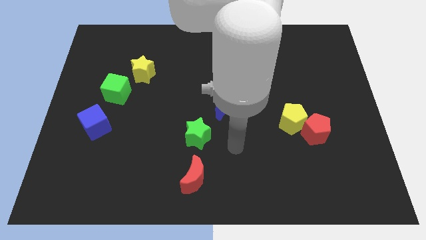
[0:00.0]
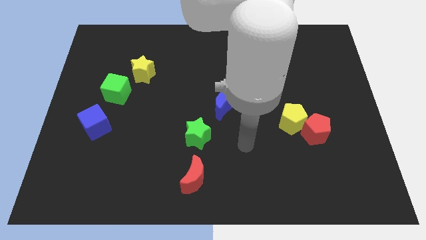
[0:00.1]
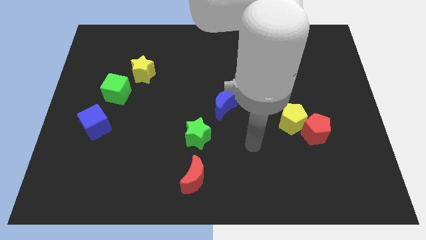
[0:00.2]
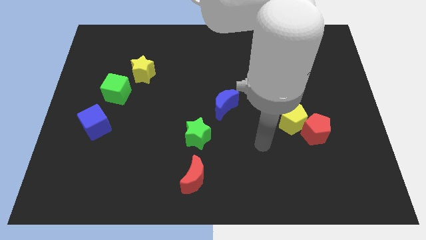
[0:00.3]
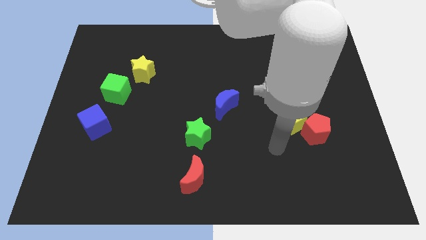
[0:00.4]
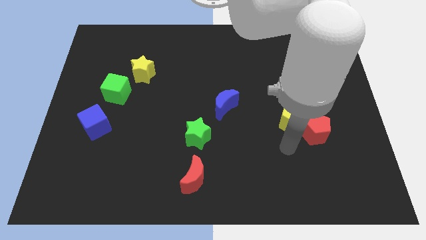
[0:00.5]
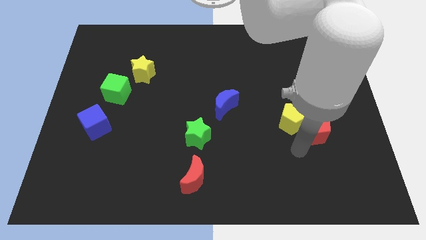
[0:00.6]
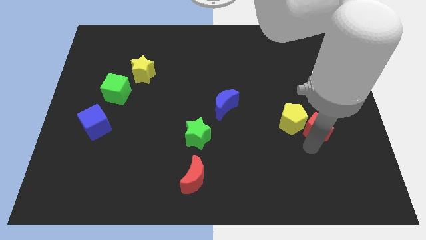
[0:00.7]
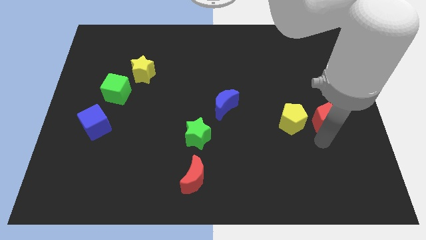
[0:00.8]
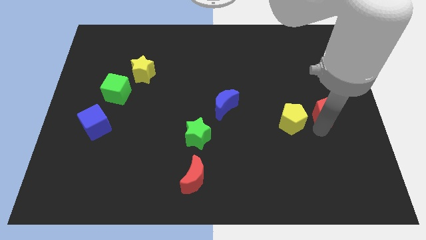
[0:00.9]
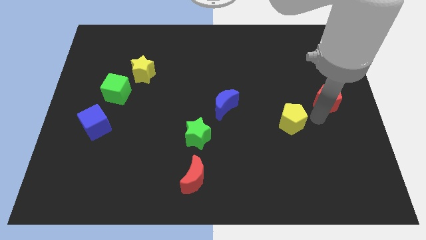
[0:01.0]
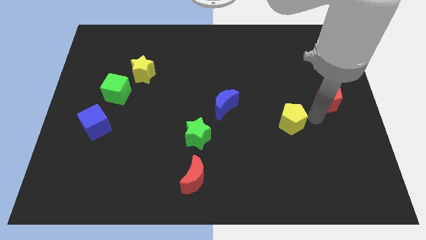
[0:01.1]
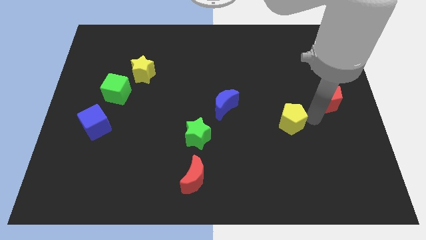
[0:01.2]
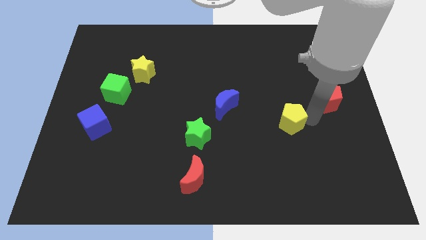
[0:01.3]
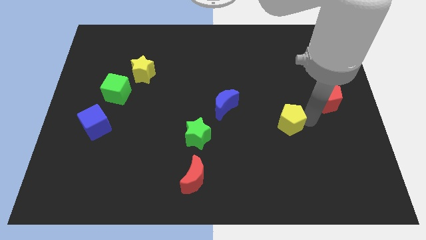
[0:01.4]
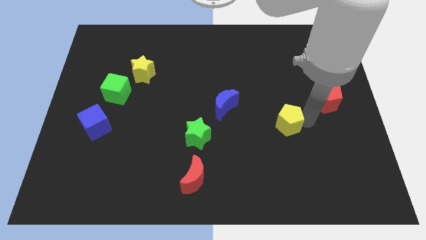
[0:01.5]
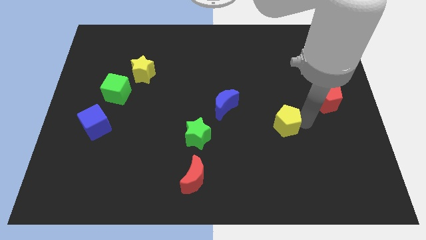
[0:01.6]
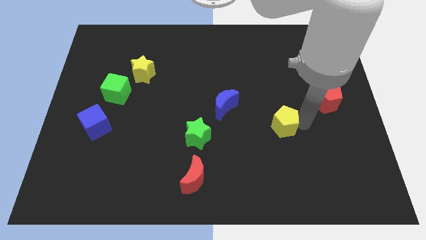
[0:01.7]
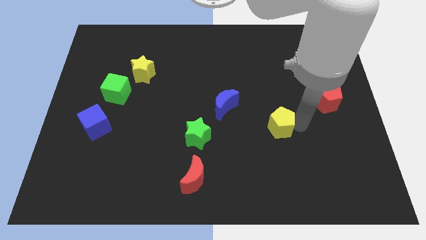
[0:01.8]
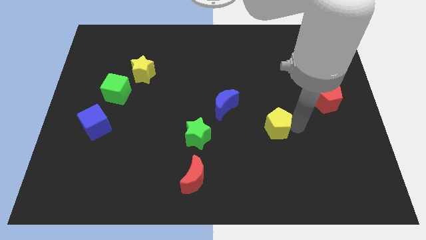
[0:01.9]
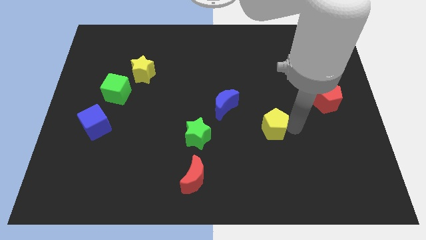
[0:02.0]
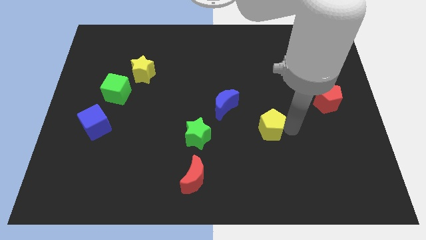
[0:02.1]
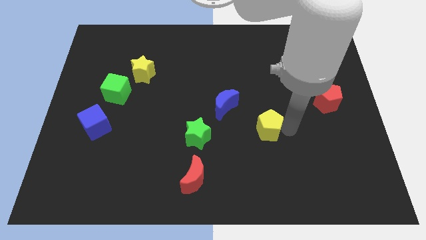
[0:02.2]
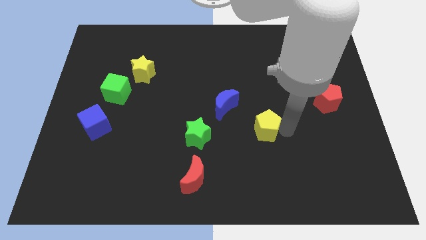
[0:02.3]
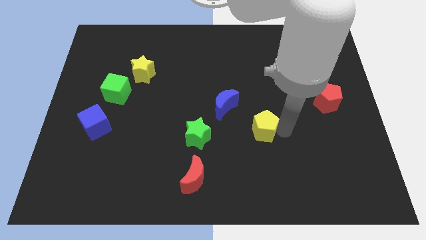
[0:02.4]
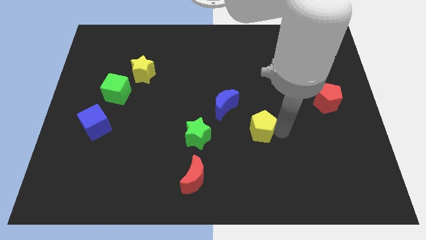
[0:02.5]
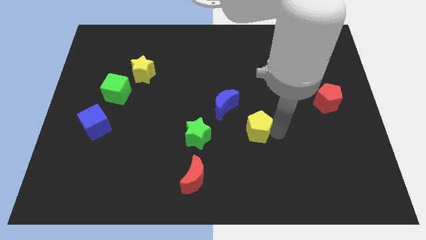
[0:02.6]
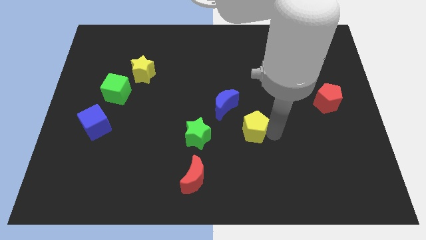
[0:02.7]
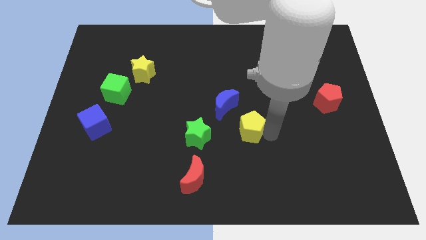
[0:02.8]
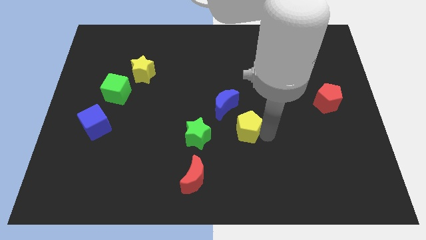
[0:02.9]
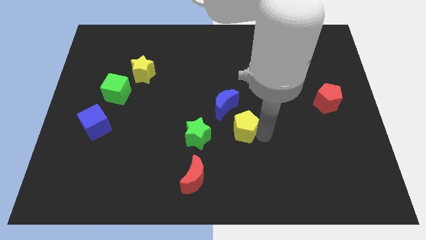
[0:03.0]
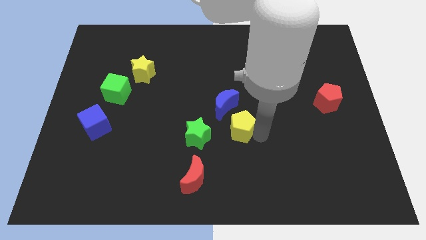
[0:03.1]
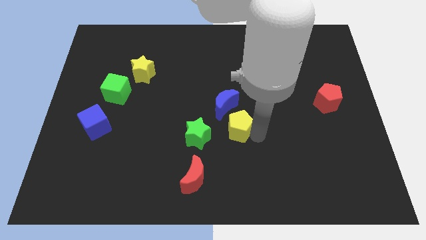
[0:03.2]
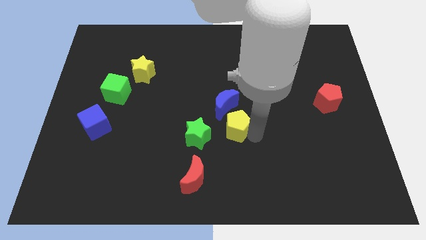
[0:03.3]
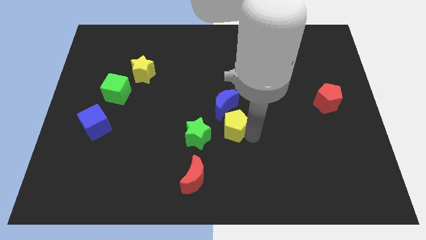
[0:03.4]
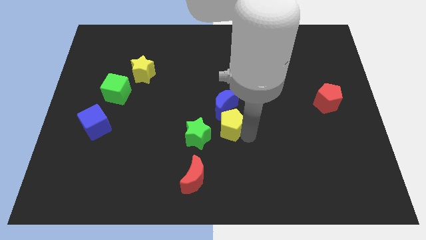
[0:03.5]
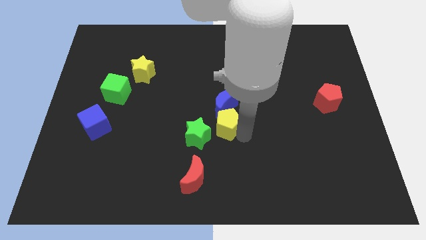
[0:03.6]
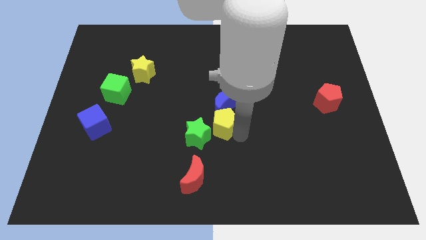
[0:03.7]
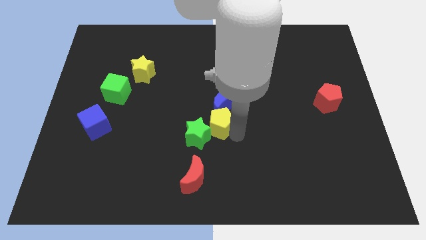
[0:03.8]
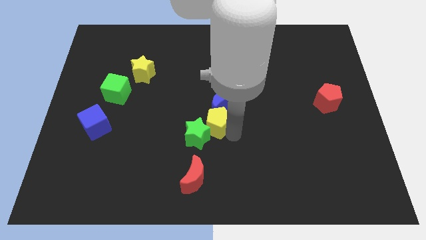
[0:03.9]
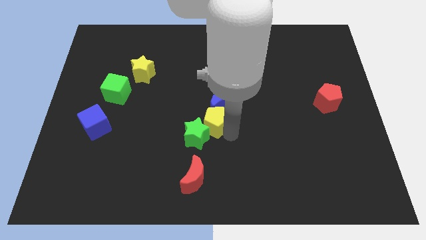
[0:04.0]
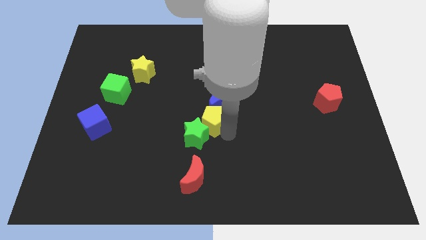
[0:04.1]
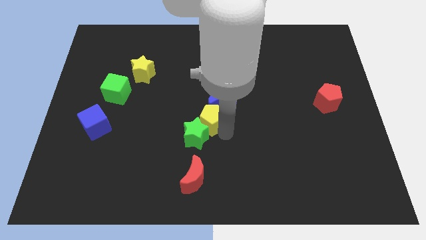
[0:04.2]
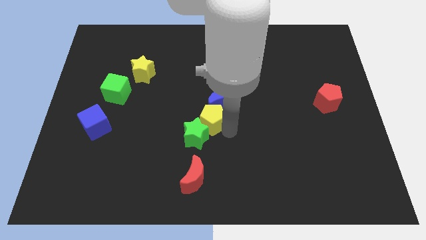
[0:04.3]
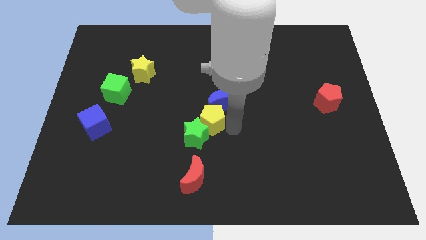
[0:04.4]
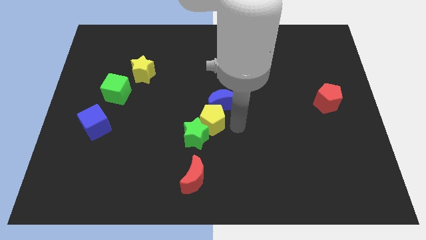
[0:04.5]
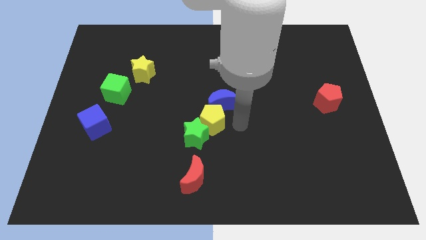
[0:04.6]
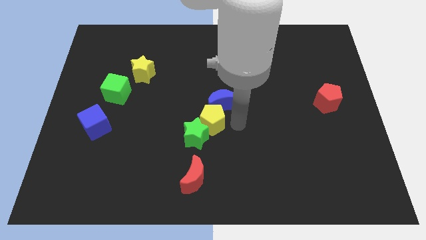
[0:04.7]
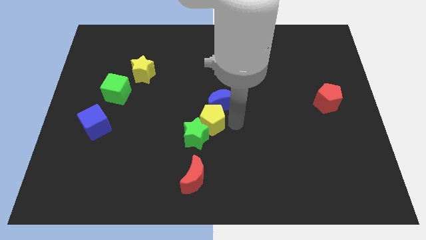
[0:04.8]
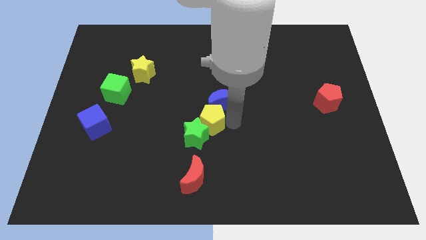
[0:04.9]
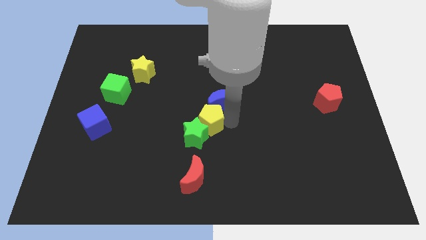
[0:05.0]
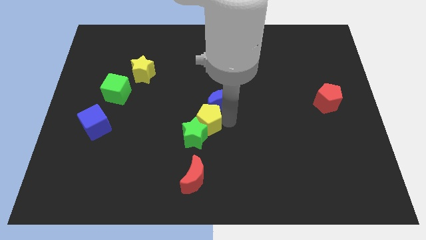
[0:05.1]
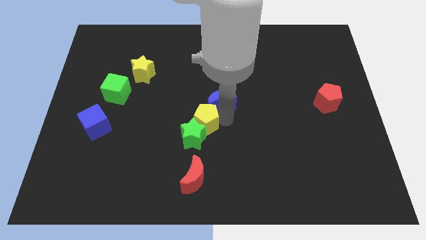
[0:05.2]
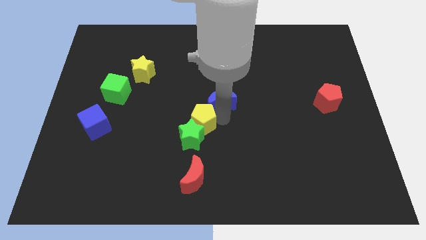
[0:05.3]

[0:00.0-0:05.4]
move the yellow pentagon left

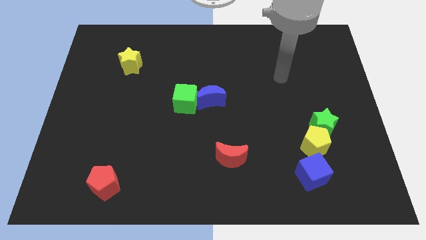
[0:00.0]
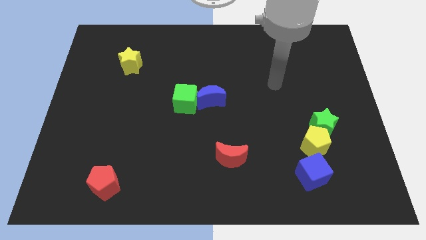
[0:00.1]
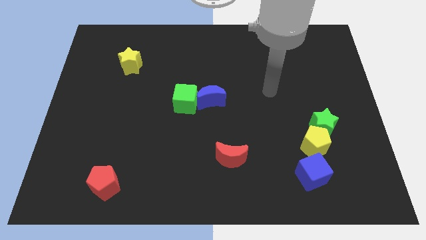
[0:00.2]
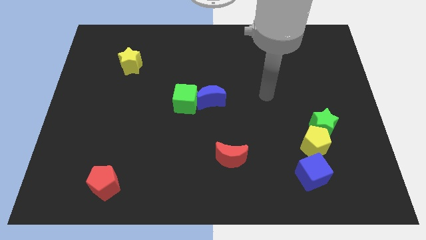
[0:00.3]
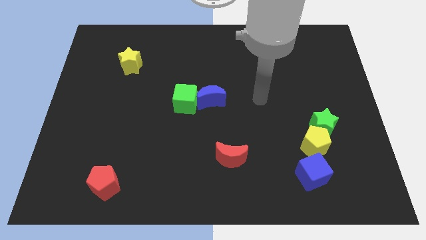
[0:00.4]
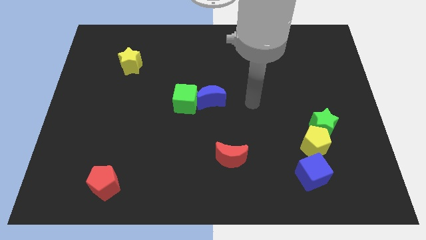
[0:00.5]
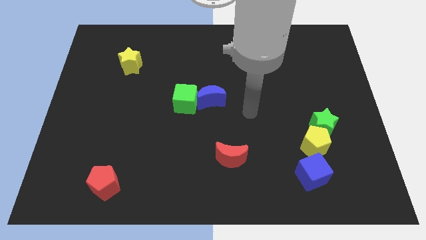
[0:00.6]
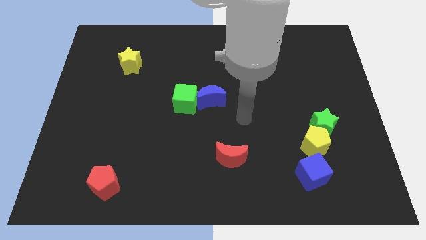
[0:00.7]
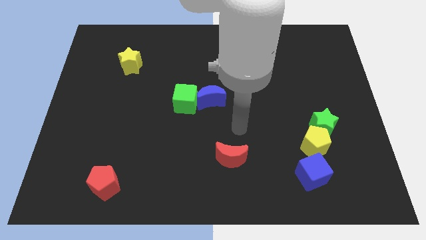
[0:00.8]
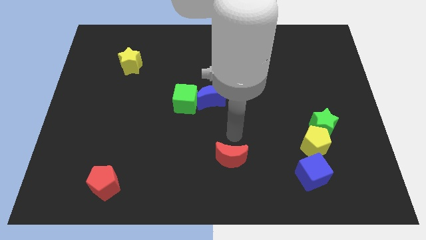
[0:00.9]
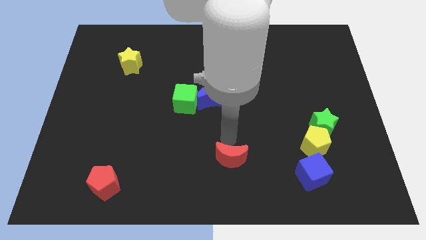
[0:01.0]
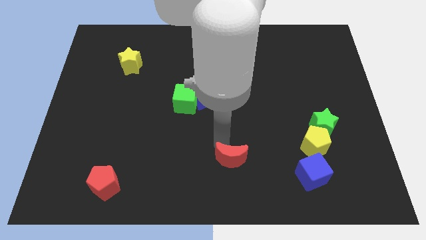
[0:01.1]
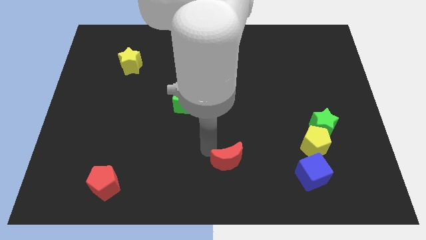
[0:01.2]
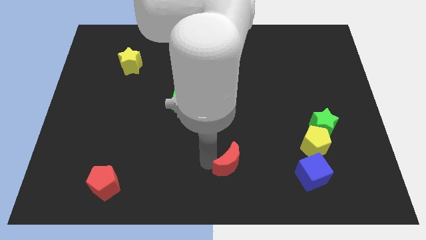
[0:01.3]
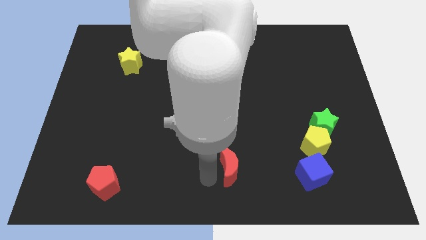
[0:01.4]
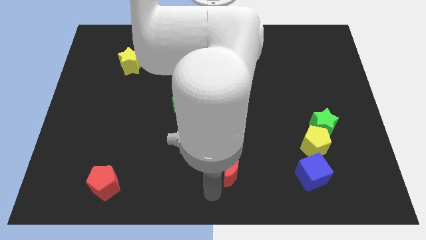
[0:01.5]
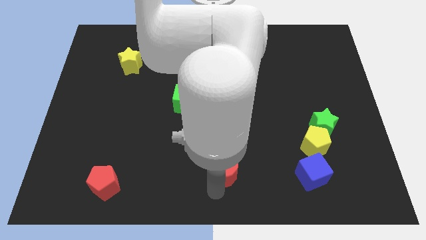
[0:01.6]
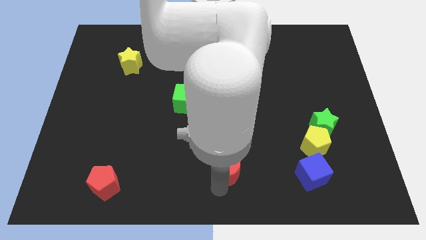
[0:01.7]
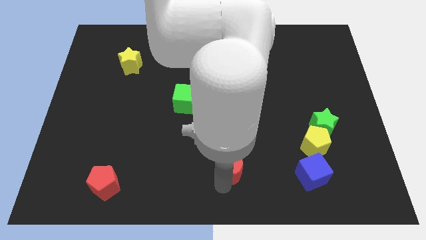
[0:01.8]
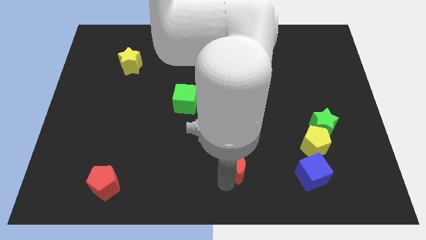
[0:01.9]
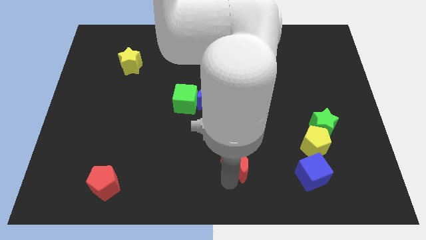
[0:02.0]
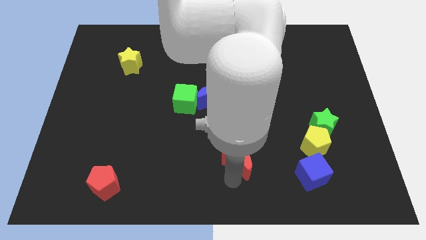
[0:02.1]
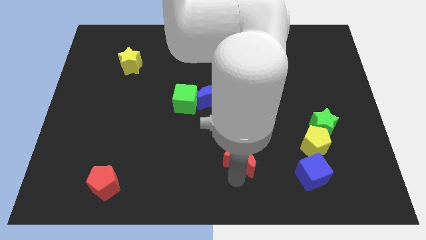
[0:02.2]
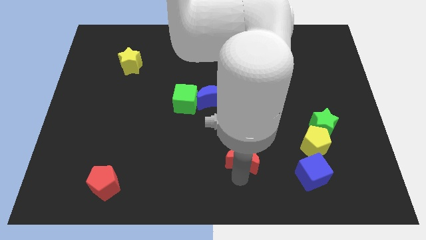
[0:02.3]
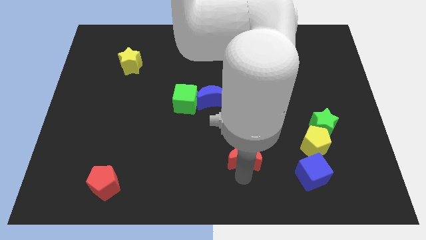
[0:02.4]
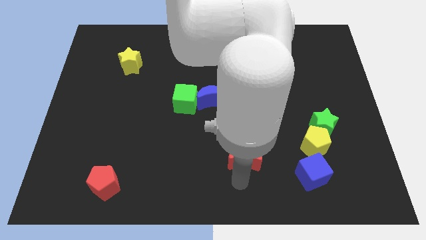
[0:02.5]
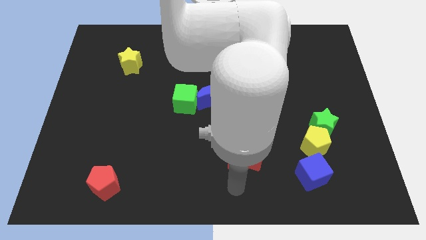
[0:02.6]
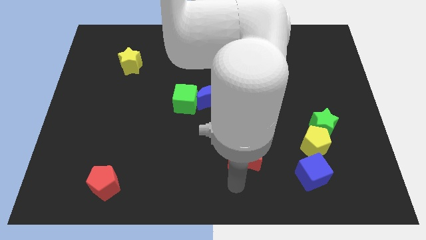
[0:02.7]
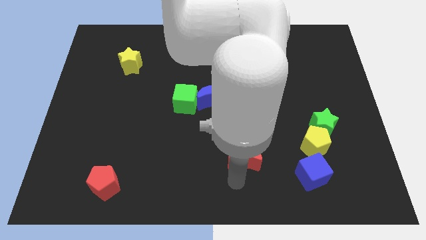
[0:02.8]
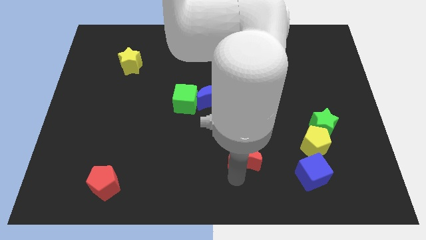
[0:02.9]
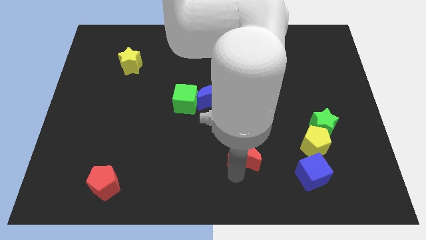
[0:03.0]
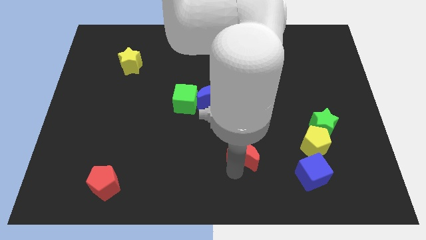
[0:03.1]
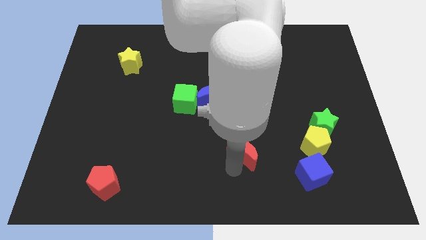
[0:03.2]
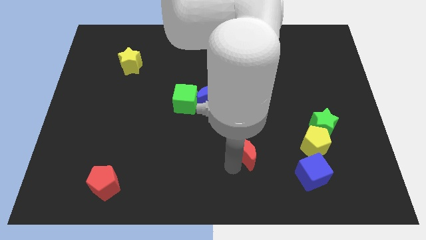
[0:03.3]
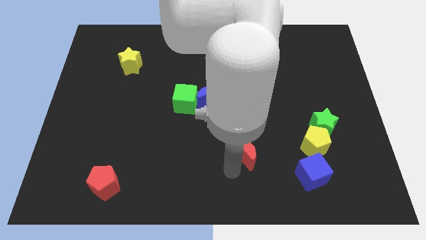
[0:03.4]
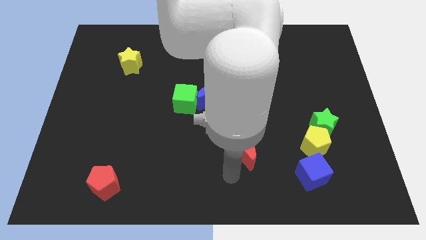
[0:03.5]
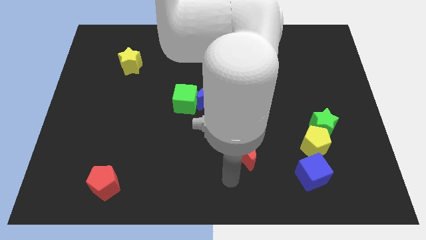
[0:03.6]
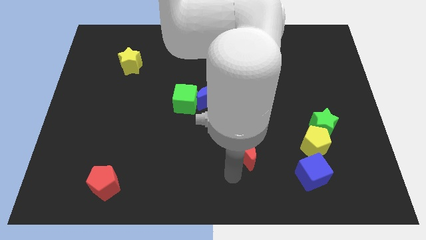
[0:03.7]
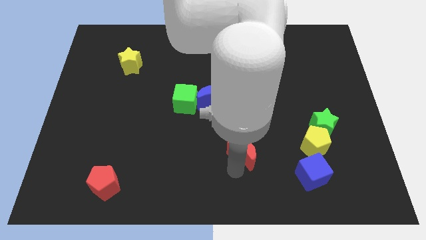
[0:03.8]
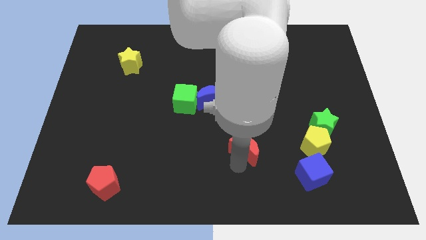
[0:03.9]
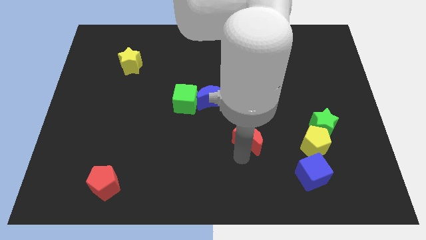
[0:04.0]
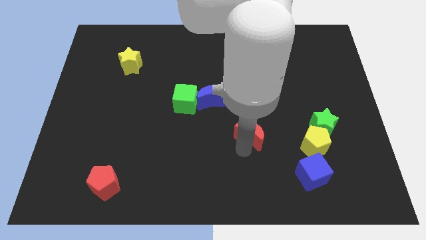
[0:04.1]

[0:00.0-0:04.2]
push the red moon upwards and then to the right somewhat
